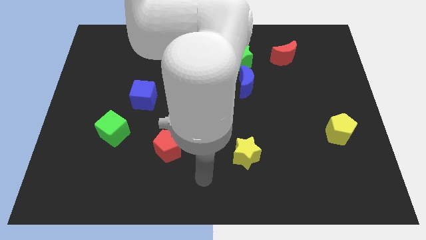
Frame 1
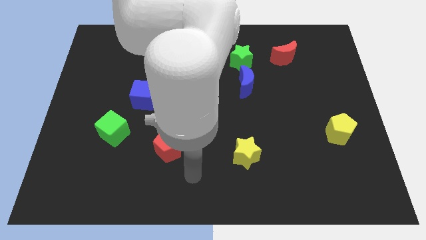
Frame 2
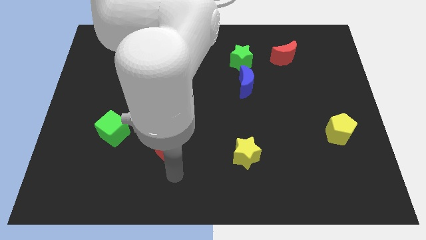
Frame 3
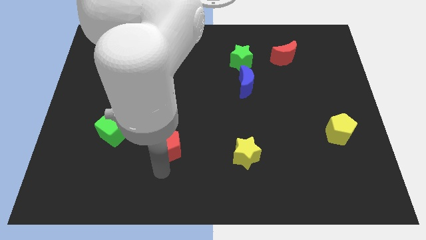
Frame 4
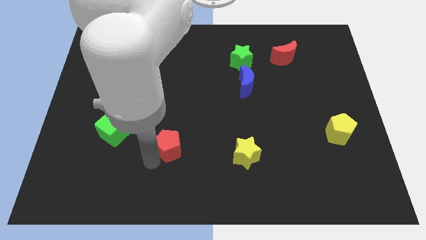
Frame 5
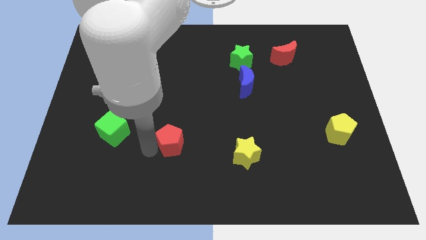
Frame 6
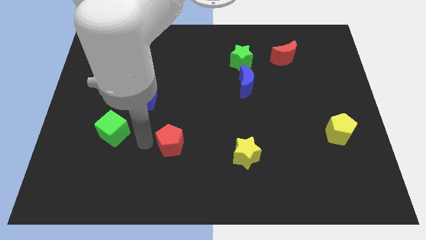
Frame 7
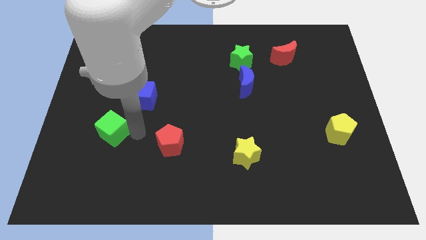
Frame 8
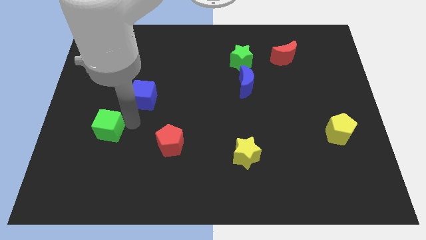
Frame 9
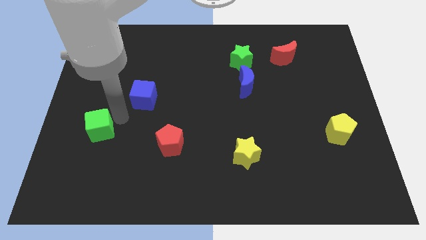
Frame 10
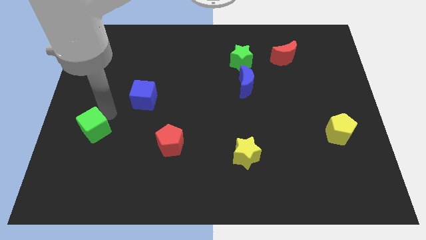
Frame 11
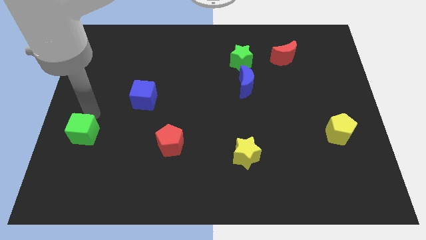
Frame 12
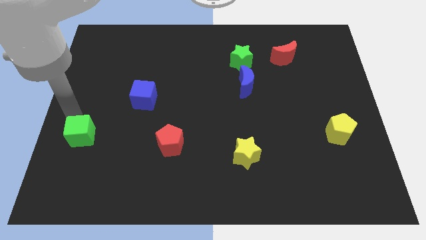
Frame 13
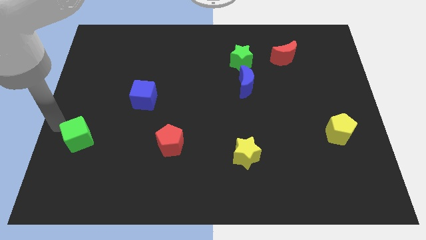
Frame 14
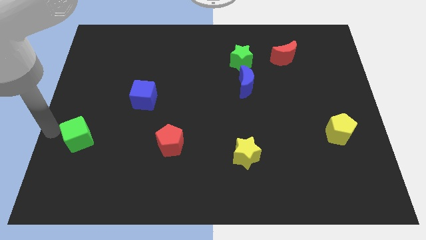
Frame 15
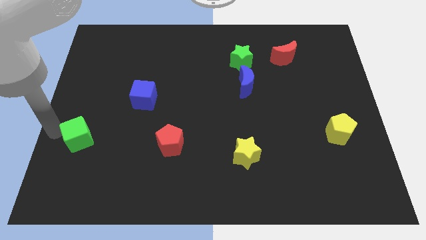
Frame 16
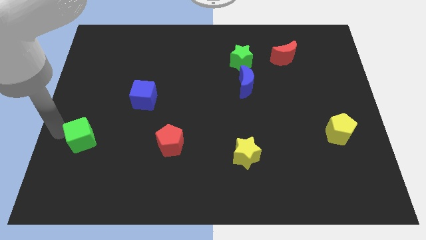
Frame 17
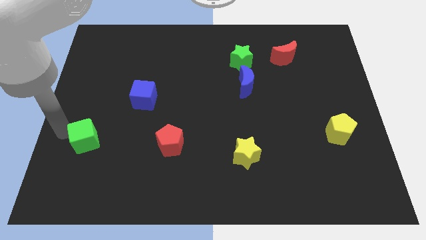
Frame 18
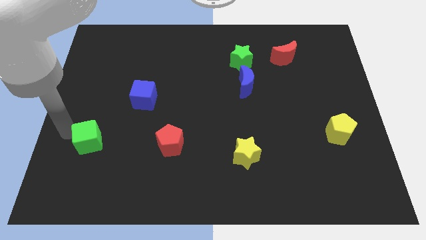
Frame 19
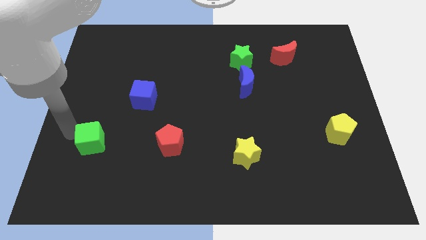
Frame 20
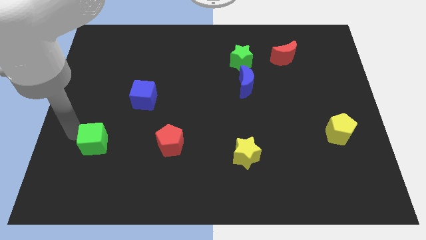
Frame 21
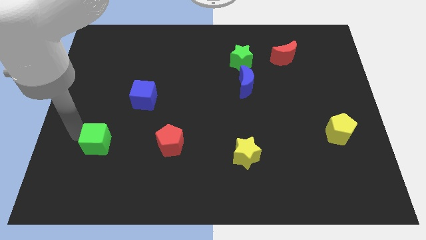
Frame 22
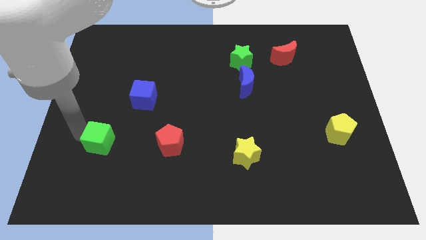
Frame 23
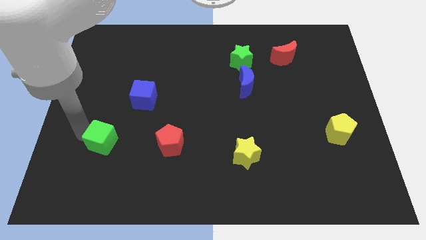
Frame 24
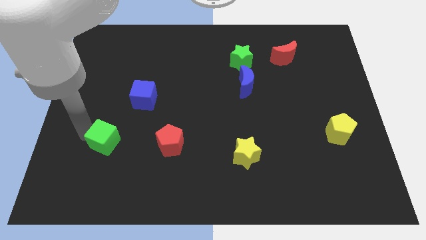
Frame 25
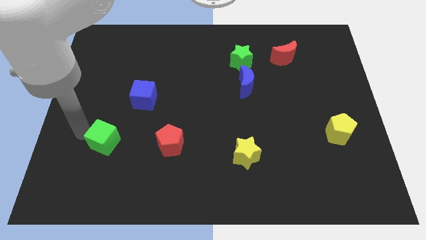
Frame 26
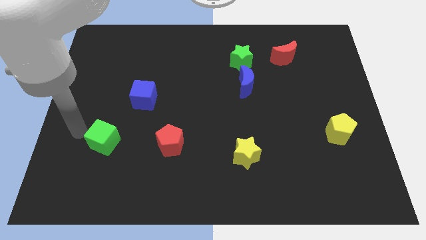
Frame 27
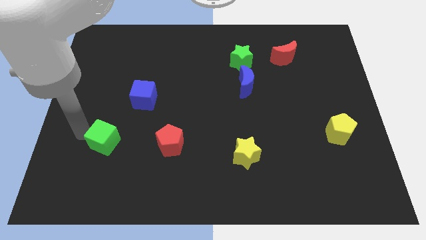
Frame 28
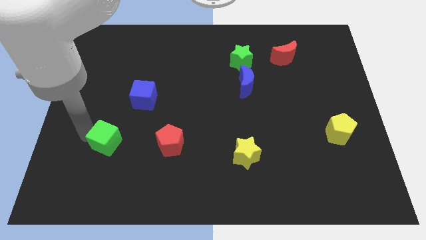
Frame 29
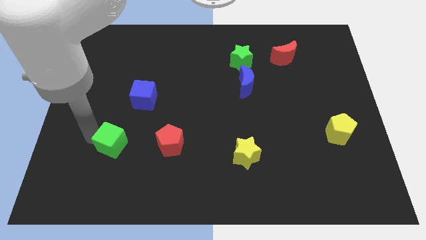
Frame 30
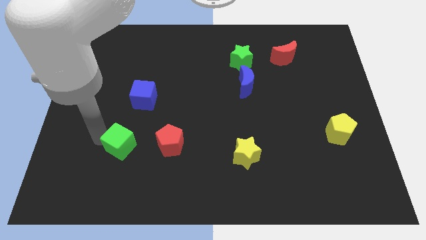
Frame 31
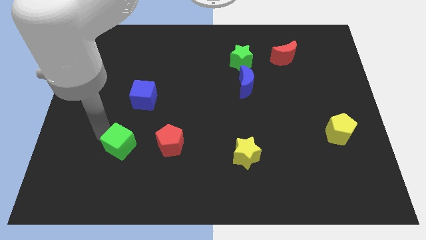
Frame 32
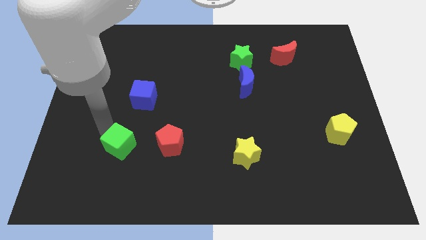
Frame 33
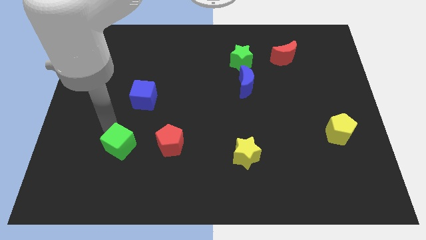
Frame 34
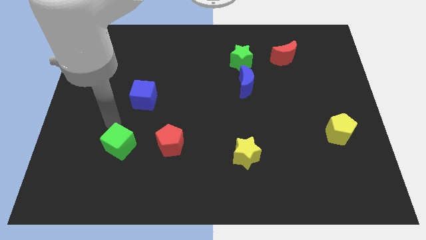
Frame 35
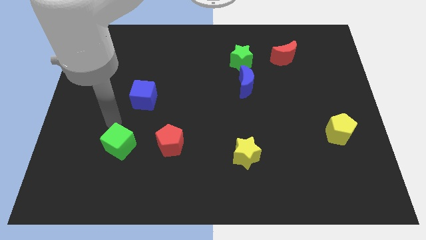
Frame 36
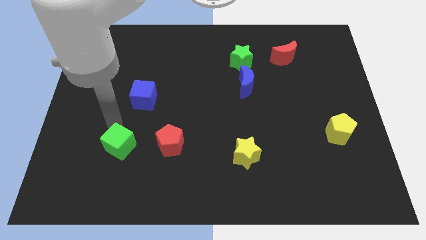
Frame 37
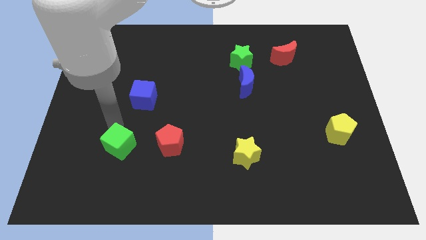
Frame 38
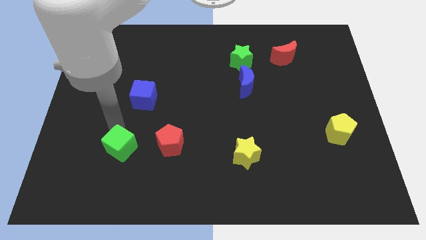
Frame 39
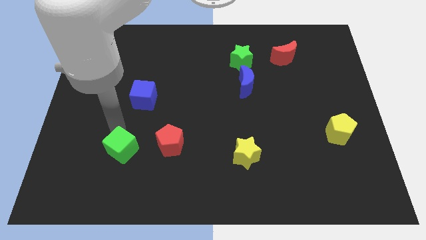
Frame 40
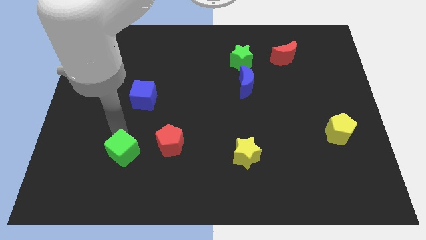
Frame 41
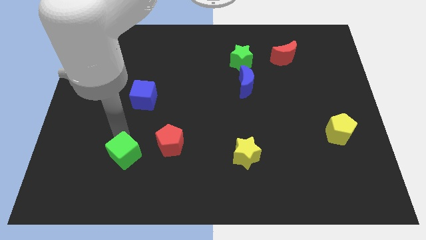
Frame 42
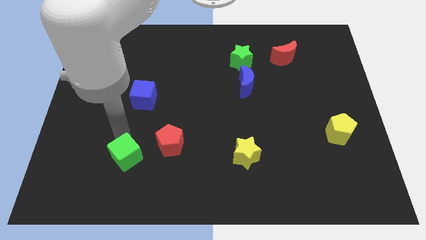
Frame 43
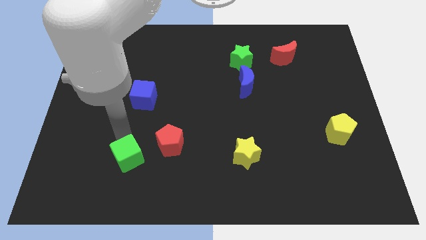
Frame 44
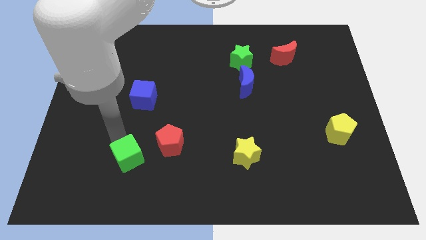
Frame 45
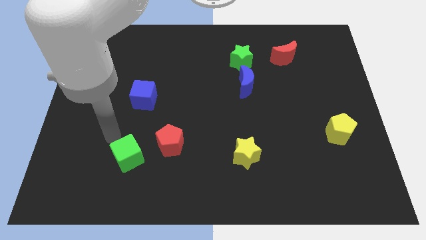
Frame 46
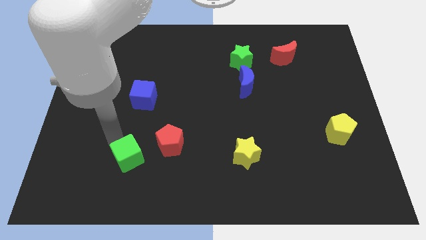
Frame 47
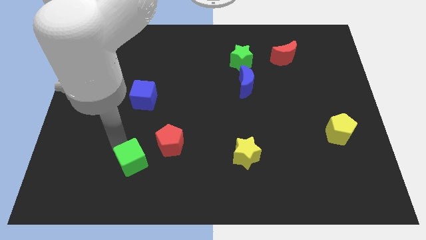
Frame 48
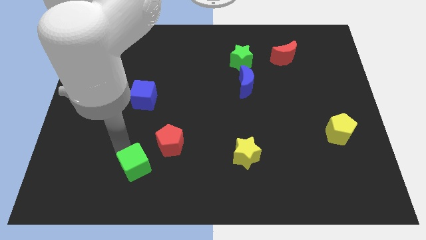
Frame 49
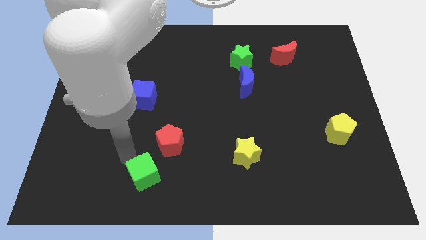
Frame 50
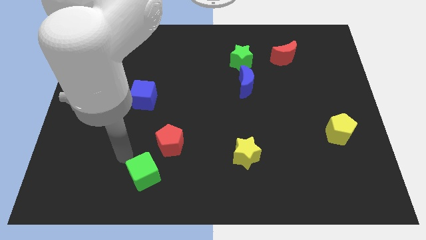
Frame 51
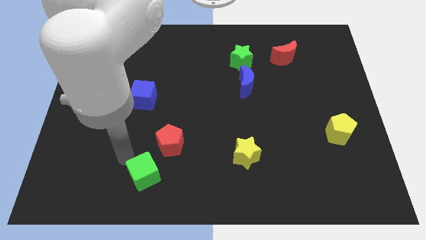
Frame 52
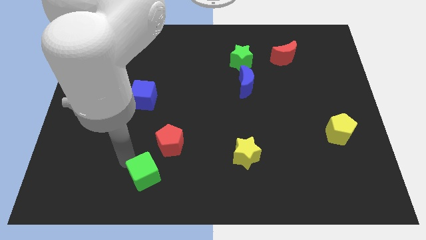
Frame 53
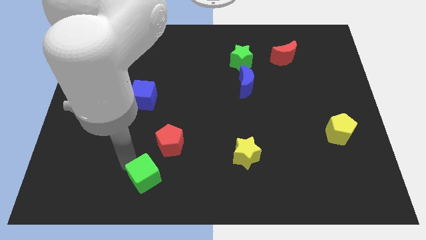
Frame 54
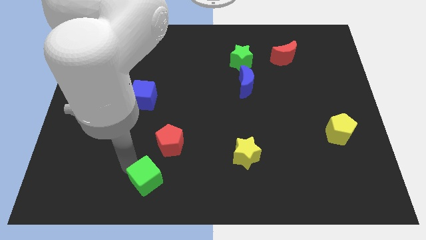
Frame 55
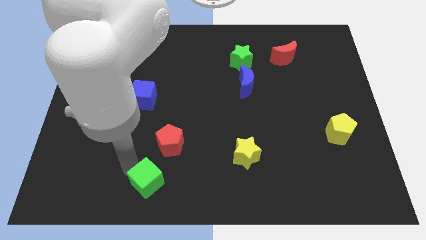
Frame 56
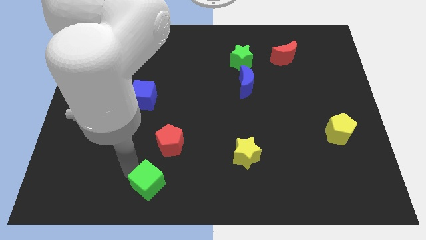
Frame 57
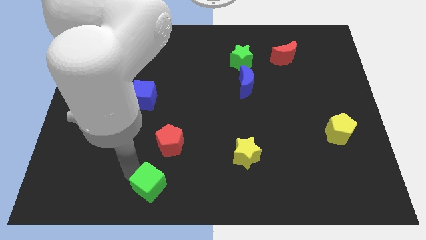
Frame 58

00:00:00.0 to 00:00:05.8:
put the green cube to the bottom side

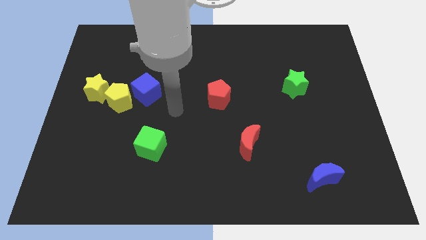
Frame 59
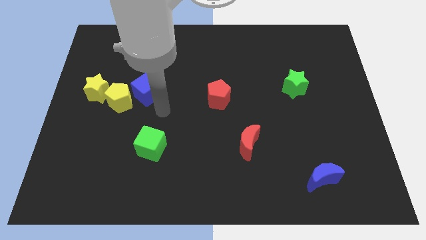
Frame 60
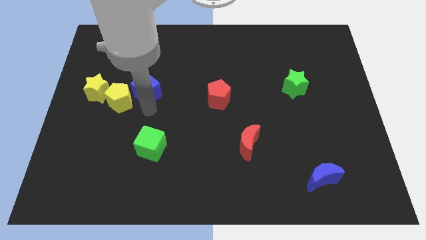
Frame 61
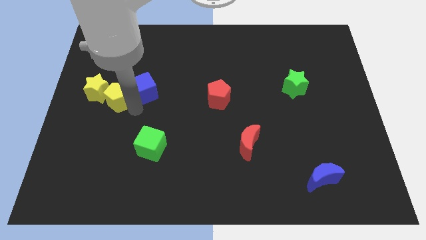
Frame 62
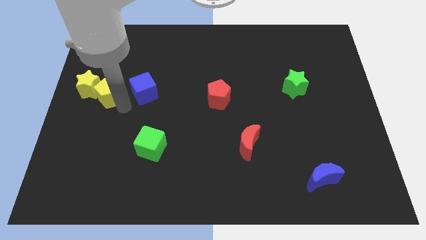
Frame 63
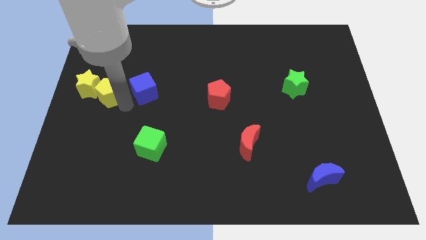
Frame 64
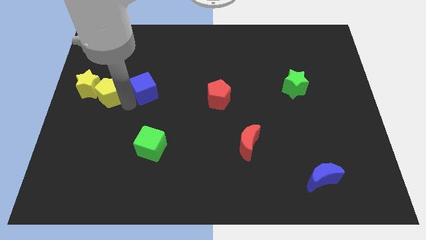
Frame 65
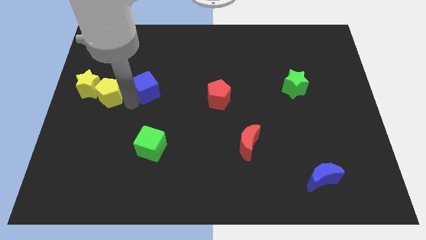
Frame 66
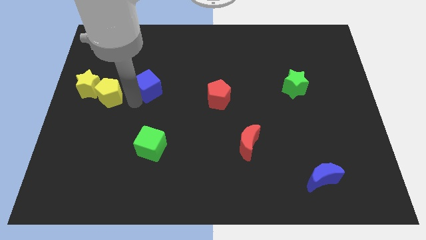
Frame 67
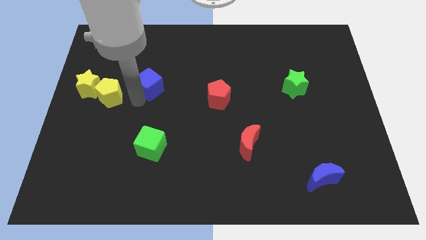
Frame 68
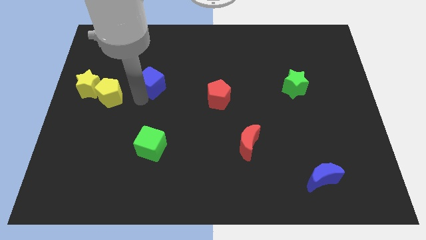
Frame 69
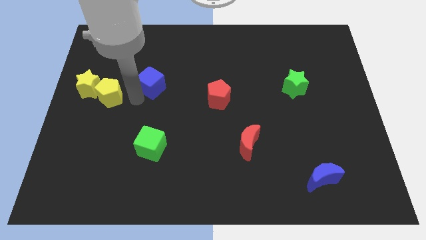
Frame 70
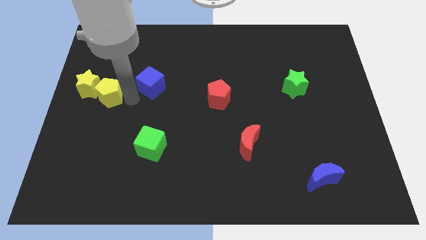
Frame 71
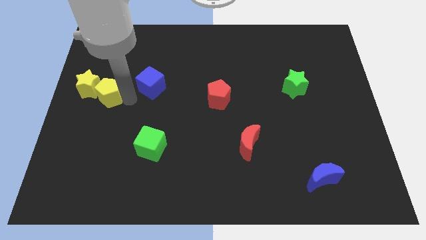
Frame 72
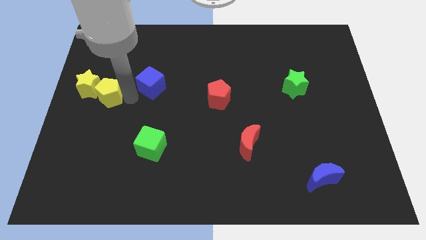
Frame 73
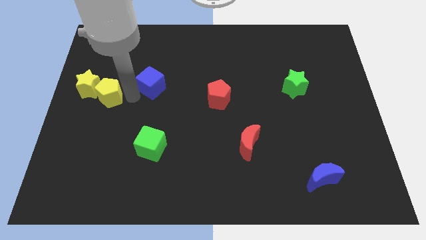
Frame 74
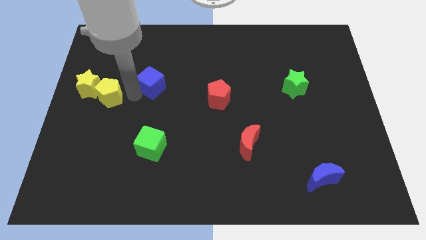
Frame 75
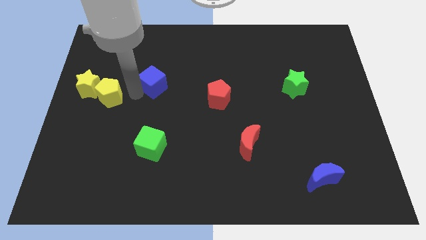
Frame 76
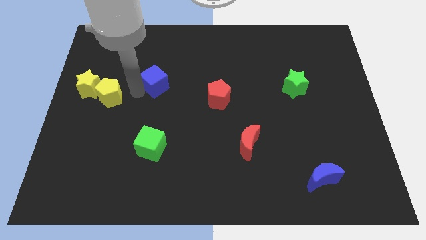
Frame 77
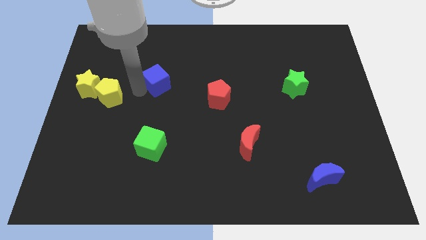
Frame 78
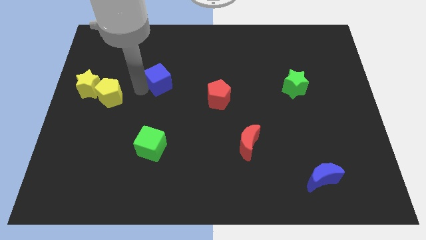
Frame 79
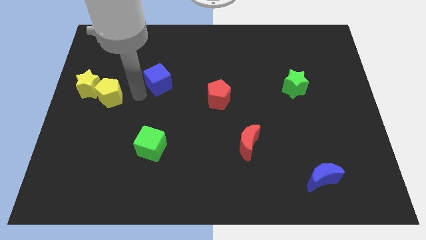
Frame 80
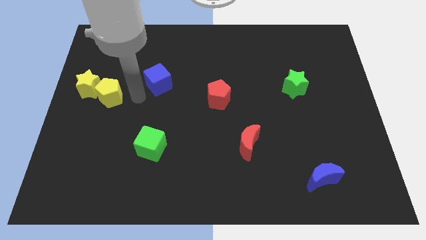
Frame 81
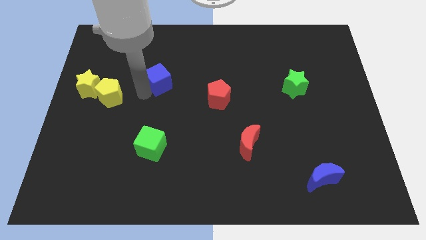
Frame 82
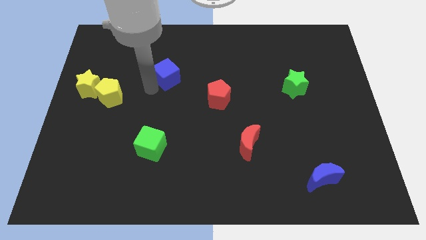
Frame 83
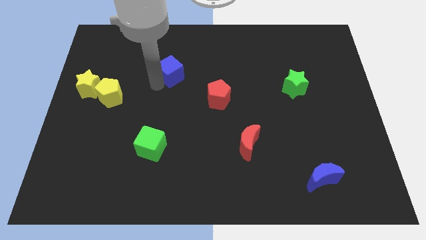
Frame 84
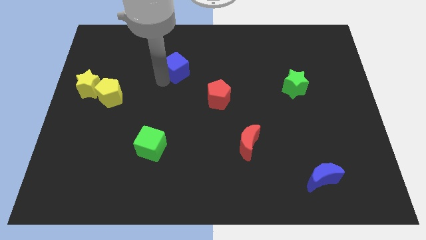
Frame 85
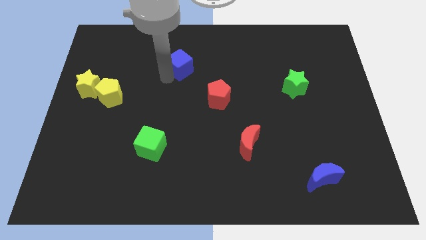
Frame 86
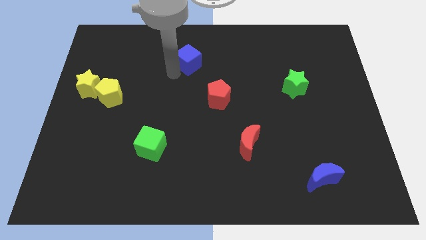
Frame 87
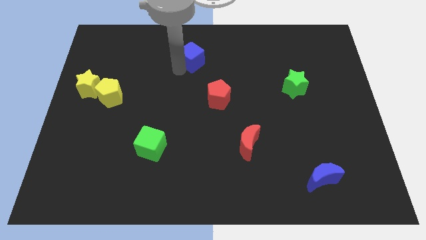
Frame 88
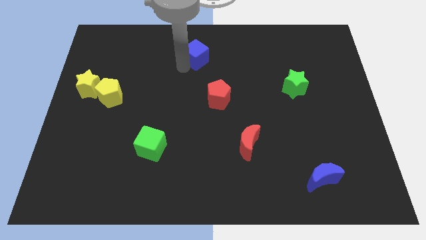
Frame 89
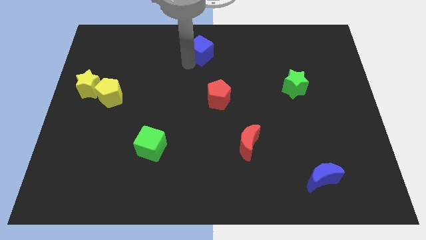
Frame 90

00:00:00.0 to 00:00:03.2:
push the blue cube to the top
